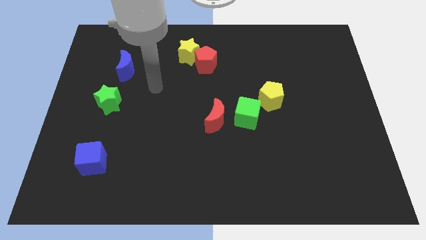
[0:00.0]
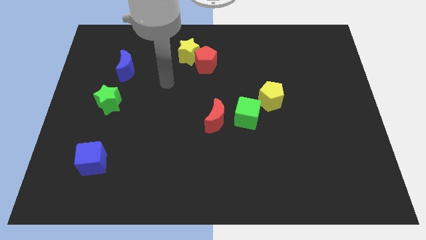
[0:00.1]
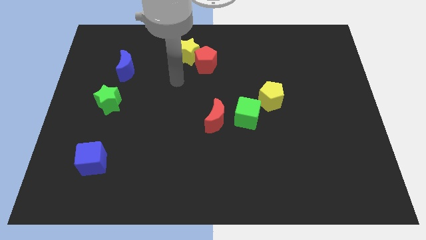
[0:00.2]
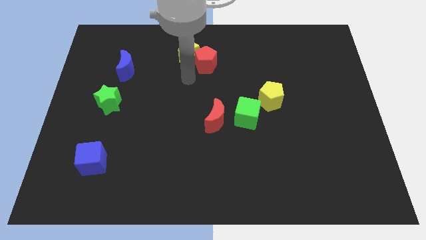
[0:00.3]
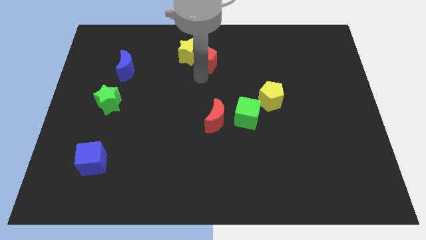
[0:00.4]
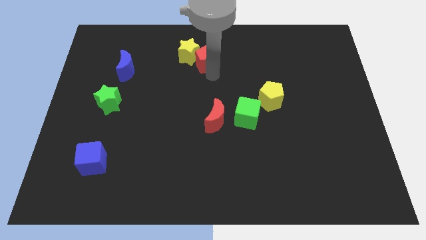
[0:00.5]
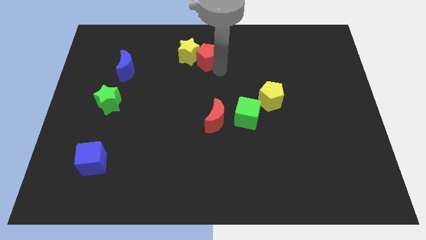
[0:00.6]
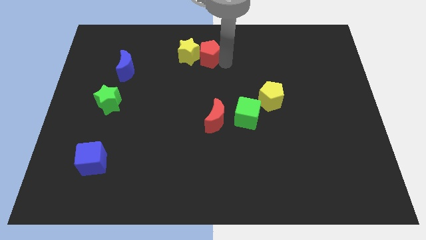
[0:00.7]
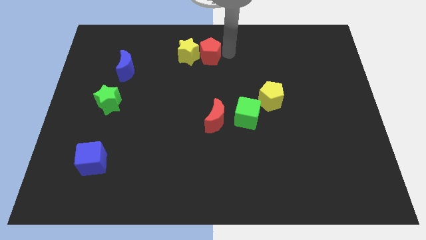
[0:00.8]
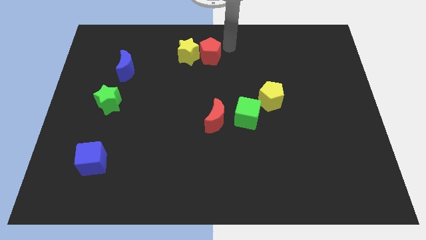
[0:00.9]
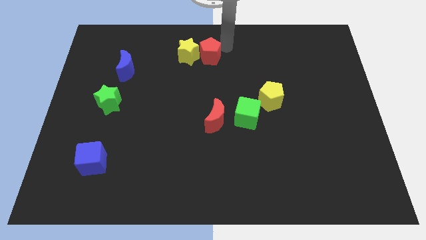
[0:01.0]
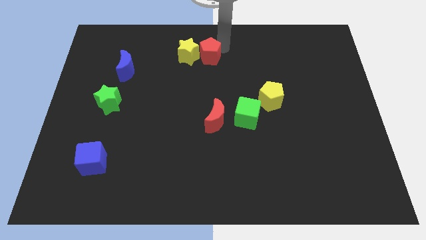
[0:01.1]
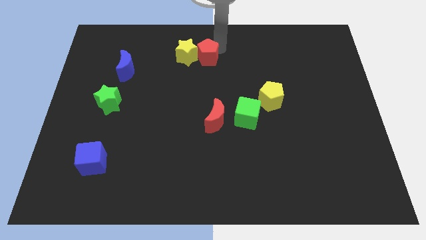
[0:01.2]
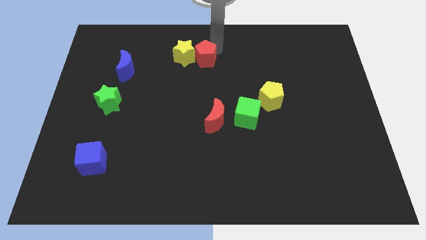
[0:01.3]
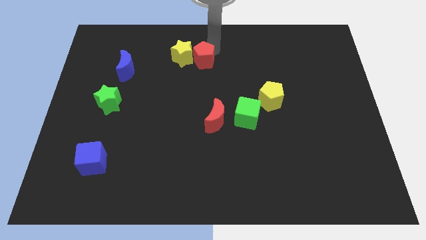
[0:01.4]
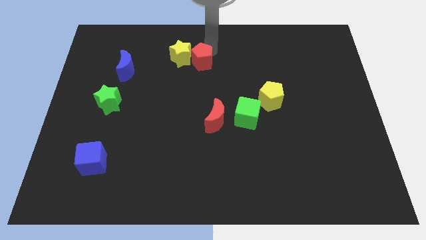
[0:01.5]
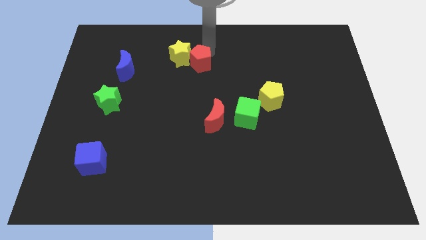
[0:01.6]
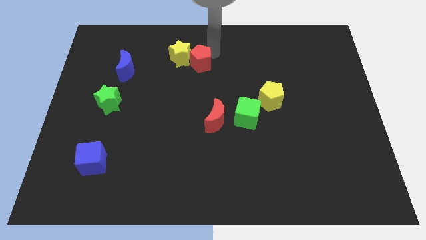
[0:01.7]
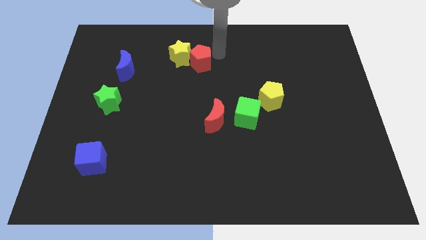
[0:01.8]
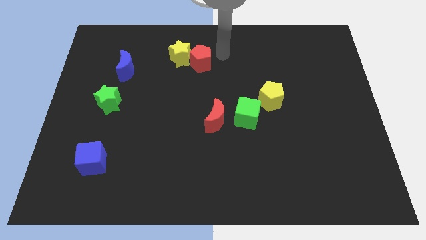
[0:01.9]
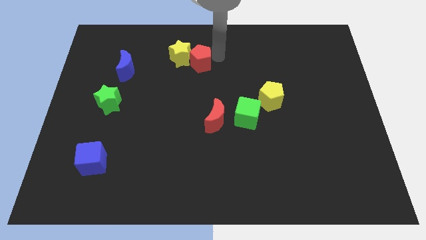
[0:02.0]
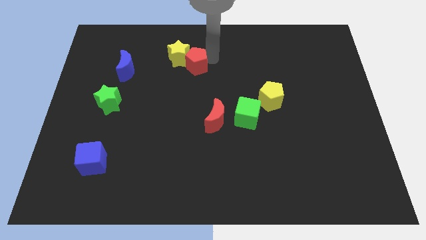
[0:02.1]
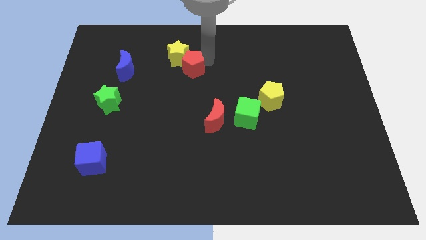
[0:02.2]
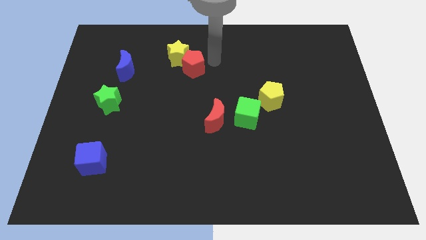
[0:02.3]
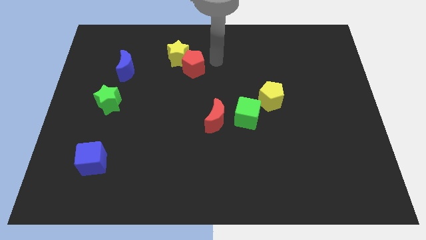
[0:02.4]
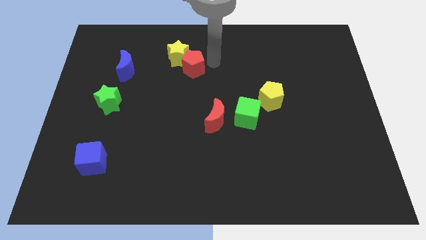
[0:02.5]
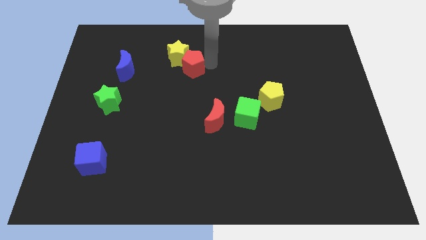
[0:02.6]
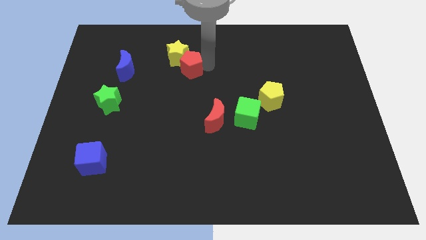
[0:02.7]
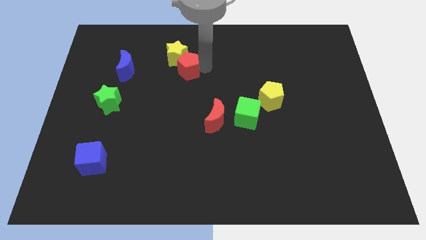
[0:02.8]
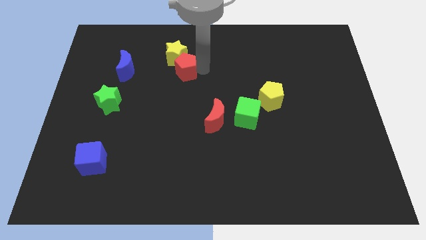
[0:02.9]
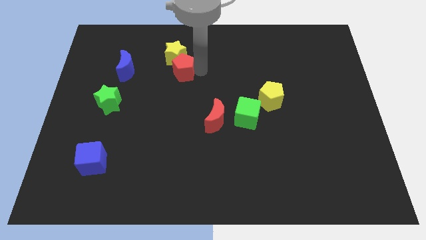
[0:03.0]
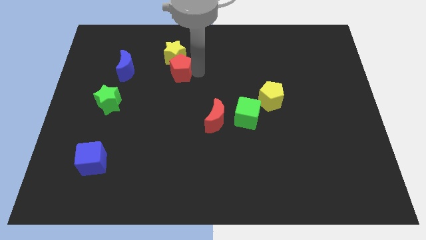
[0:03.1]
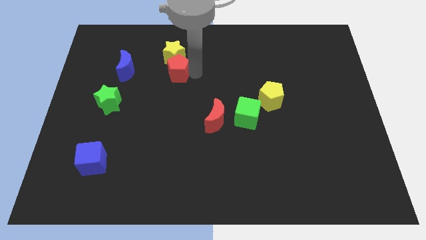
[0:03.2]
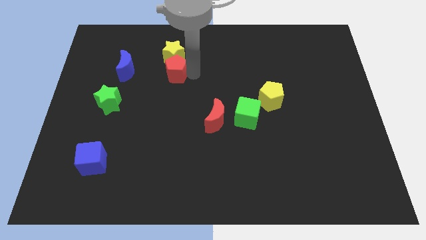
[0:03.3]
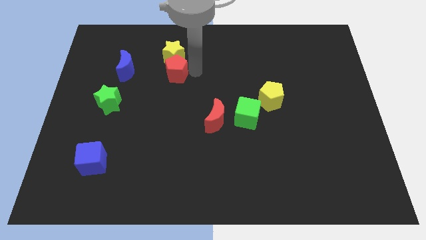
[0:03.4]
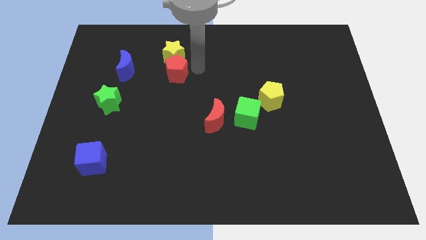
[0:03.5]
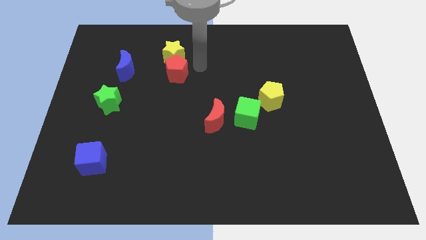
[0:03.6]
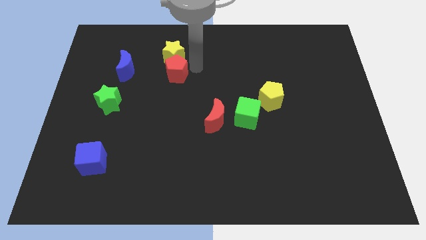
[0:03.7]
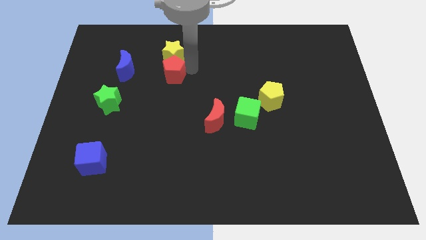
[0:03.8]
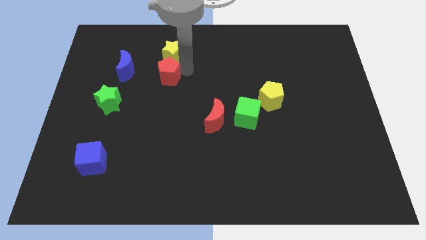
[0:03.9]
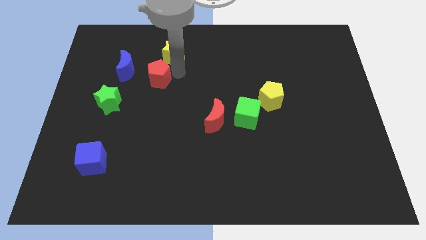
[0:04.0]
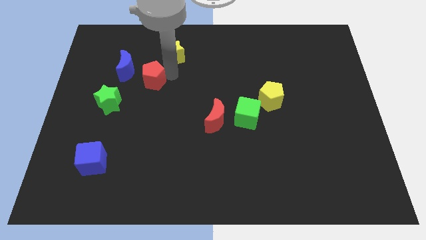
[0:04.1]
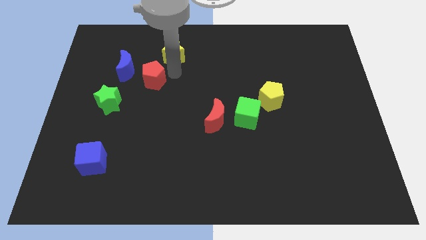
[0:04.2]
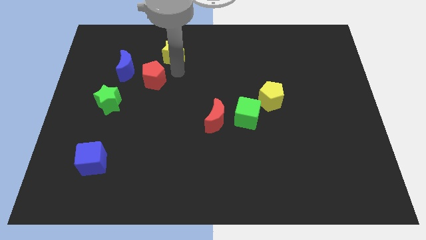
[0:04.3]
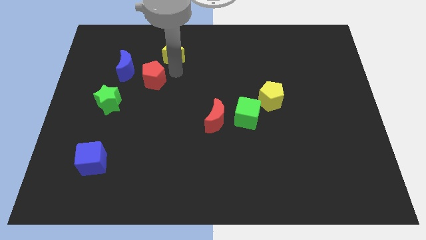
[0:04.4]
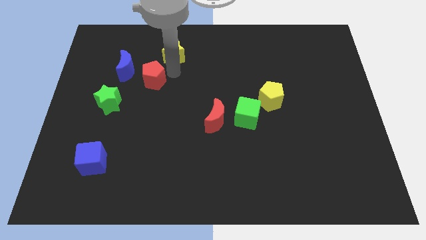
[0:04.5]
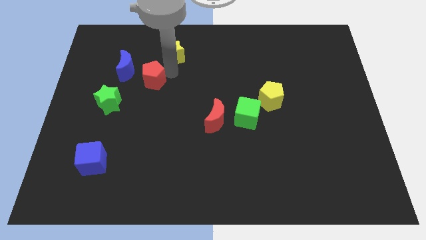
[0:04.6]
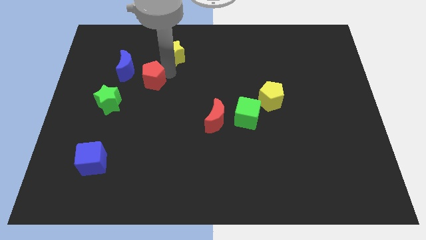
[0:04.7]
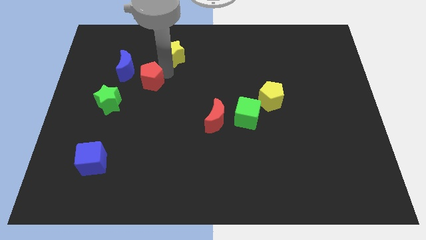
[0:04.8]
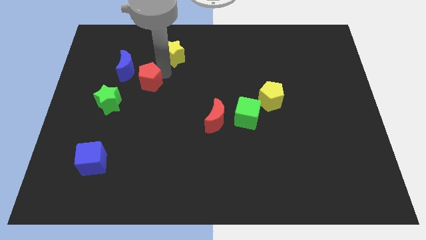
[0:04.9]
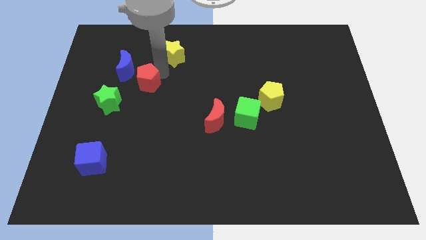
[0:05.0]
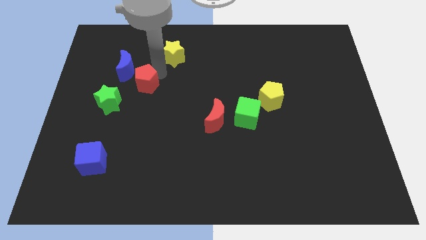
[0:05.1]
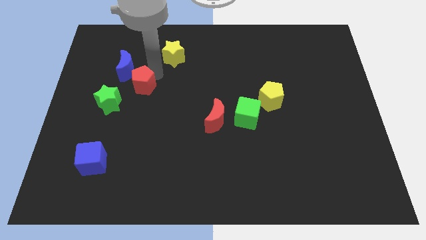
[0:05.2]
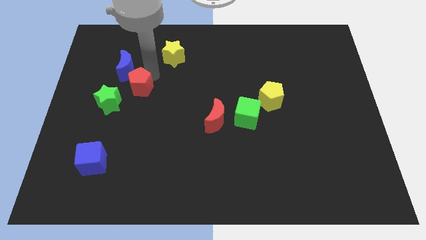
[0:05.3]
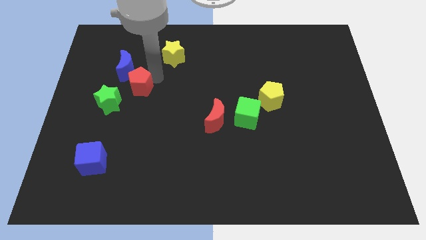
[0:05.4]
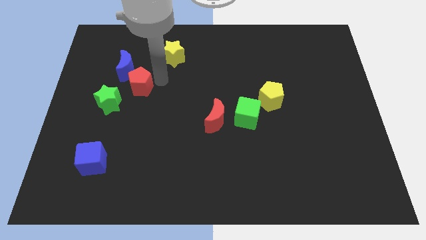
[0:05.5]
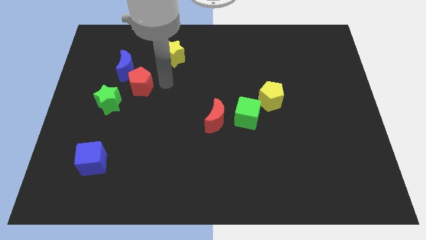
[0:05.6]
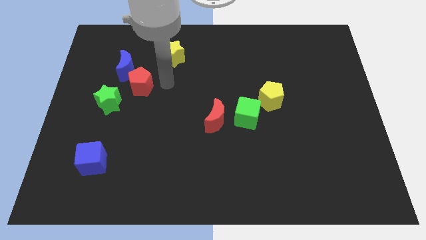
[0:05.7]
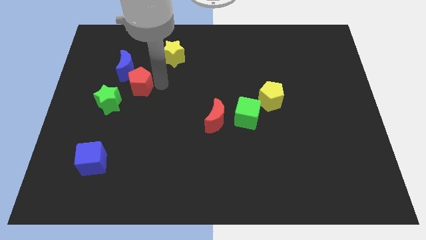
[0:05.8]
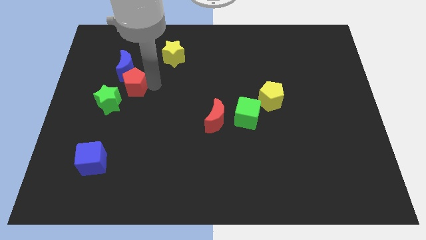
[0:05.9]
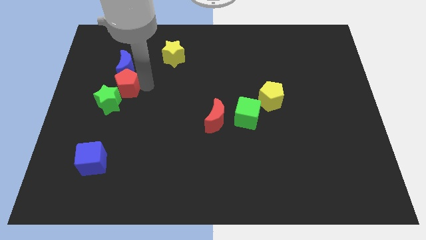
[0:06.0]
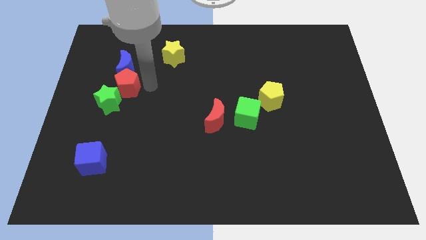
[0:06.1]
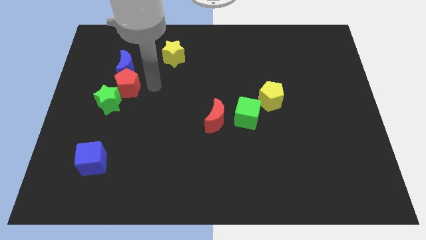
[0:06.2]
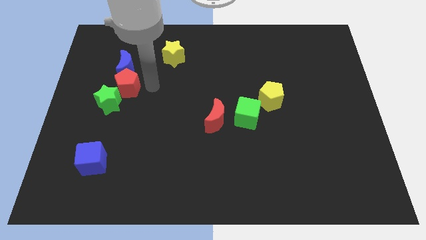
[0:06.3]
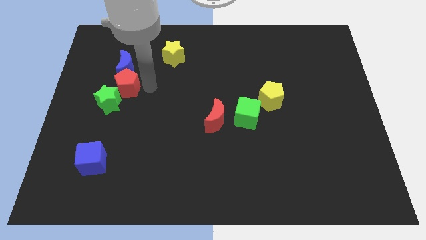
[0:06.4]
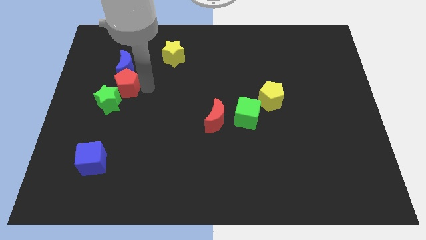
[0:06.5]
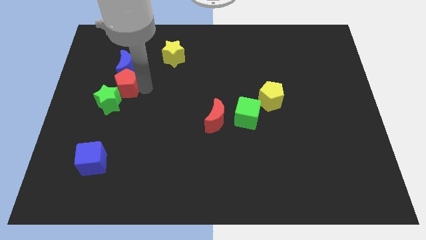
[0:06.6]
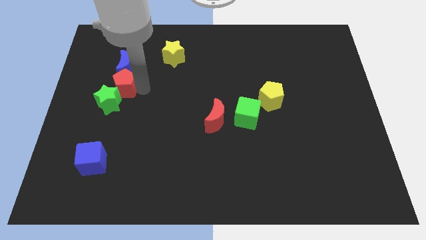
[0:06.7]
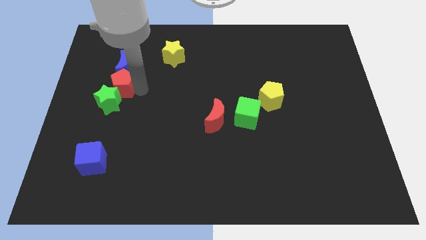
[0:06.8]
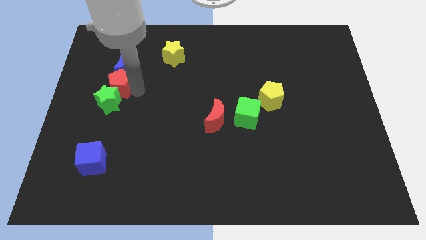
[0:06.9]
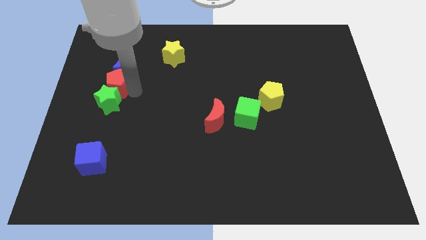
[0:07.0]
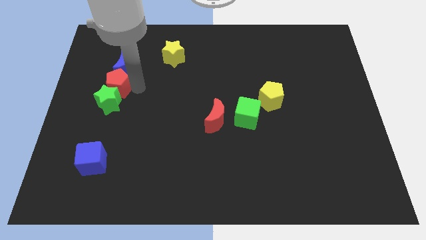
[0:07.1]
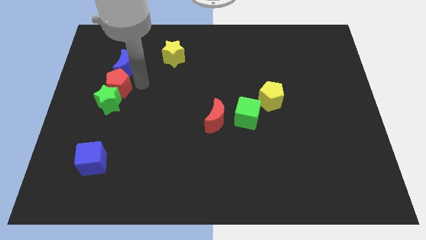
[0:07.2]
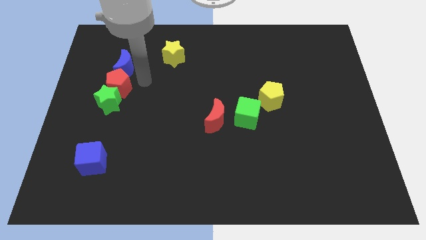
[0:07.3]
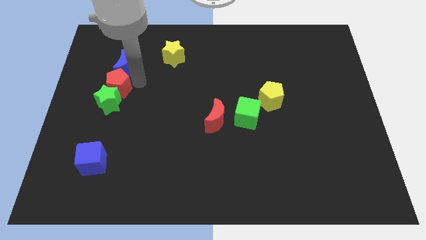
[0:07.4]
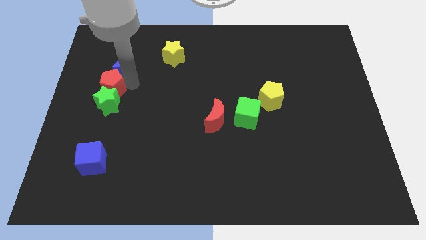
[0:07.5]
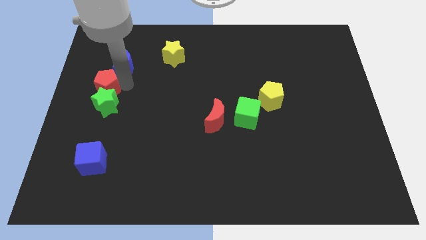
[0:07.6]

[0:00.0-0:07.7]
move the red pentagon to the left side

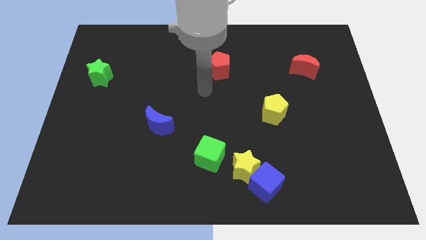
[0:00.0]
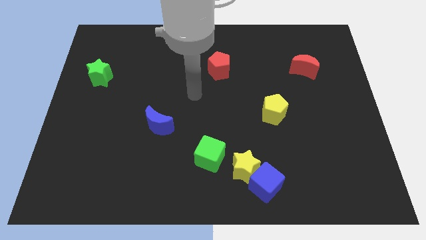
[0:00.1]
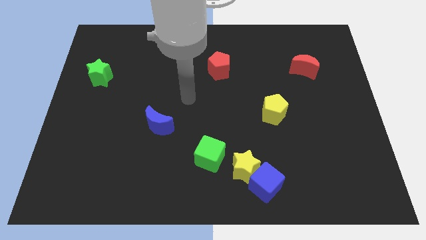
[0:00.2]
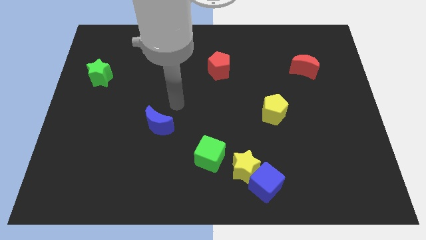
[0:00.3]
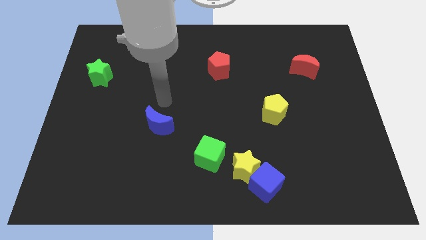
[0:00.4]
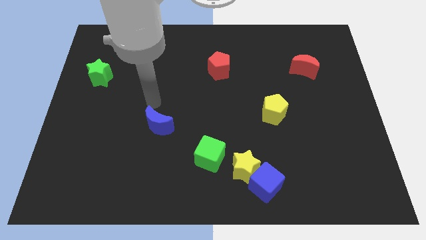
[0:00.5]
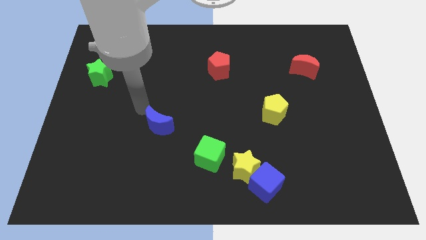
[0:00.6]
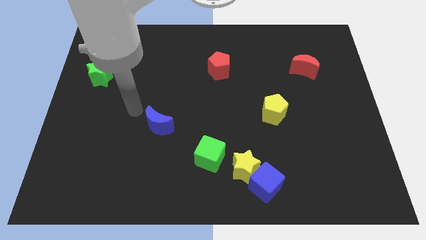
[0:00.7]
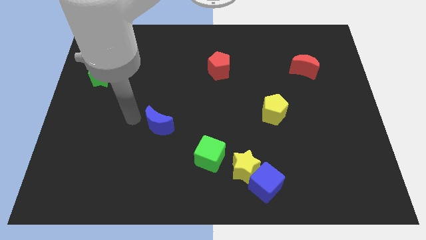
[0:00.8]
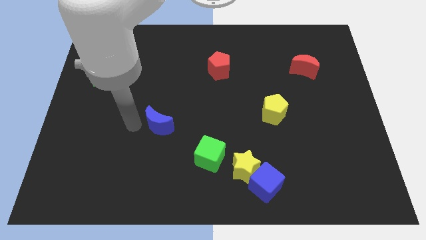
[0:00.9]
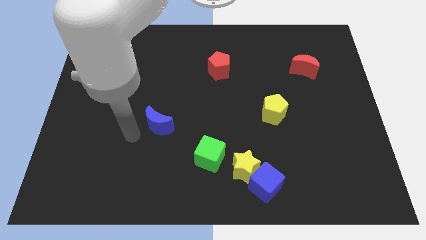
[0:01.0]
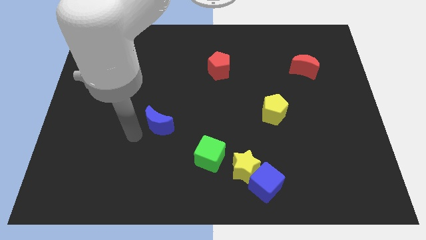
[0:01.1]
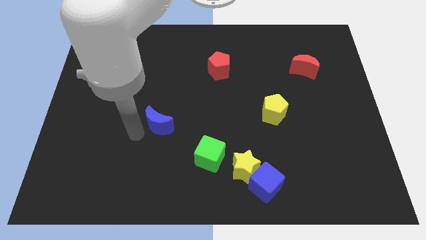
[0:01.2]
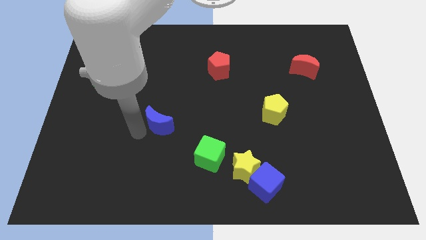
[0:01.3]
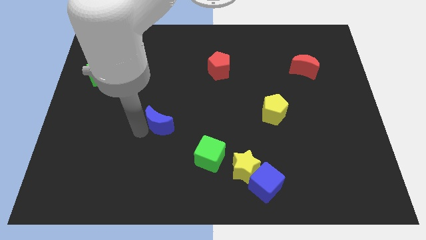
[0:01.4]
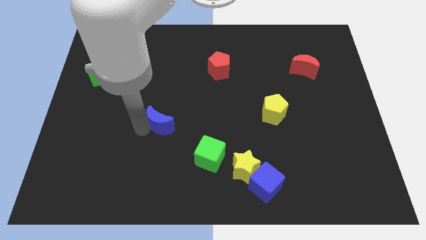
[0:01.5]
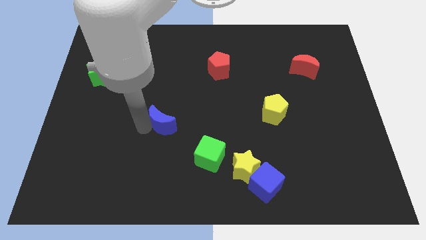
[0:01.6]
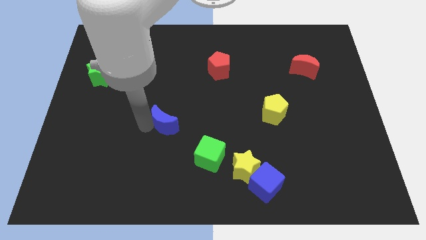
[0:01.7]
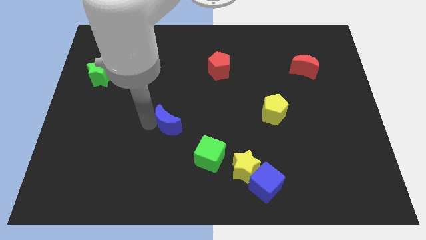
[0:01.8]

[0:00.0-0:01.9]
slide the blue moon to the middle
